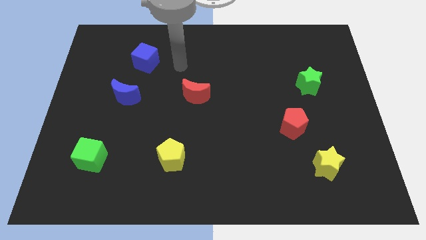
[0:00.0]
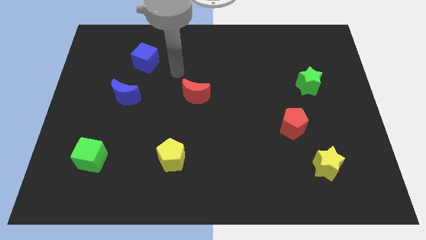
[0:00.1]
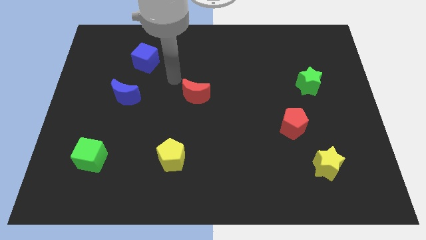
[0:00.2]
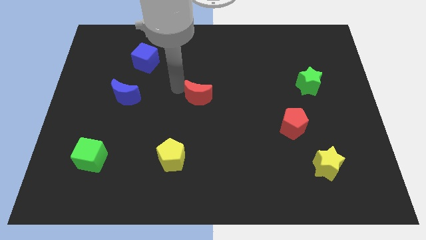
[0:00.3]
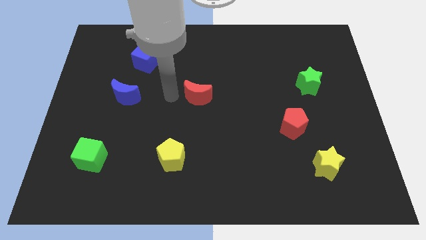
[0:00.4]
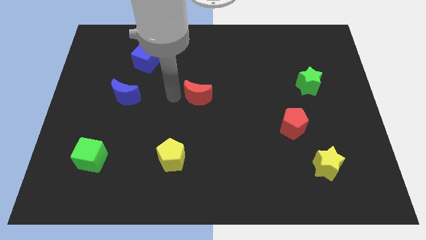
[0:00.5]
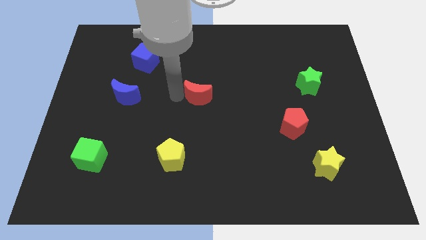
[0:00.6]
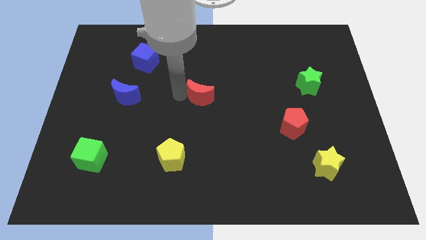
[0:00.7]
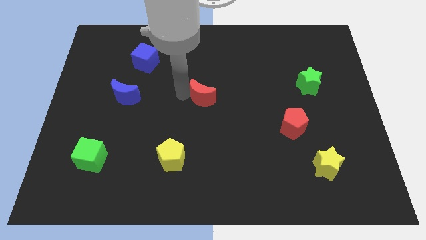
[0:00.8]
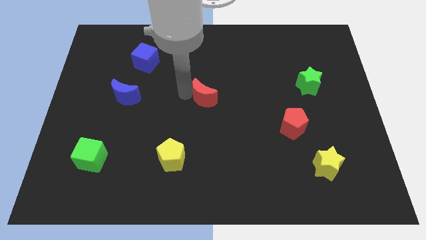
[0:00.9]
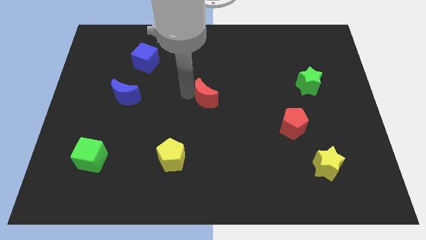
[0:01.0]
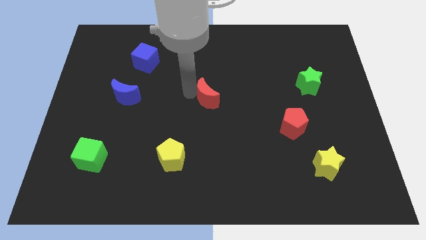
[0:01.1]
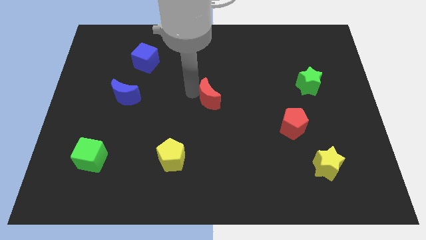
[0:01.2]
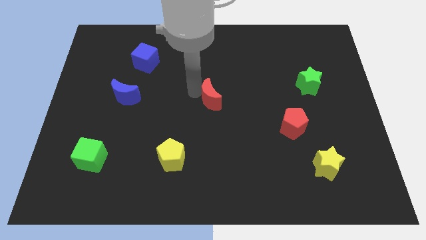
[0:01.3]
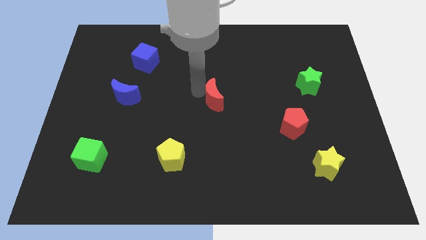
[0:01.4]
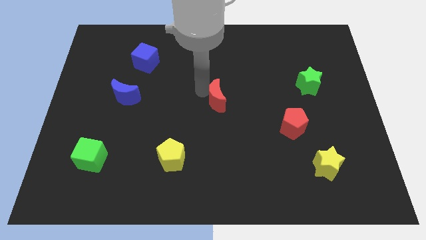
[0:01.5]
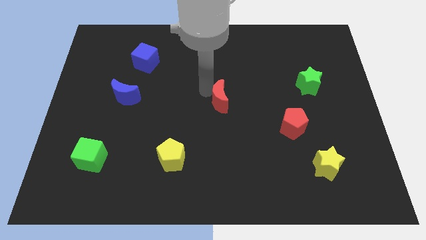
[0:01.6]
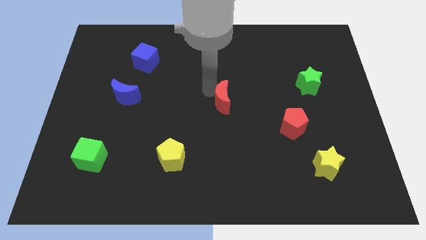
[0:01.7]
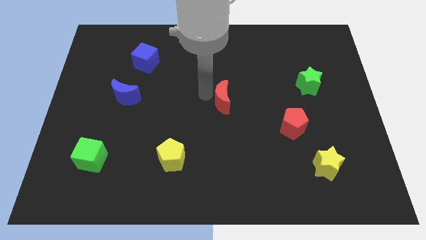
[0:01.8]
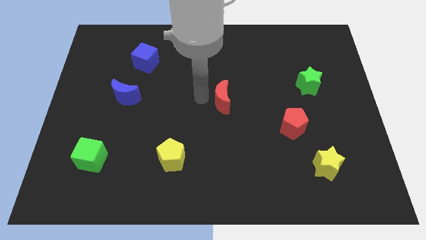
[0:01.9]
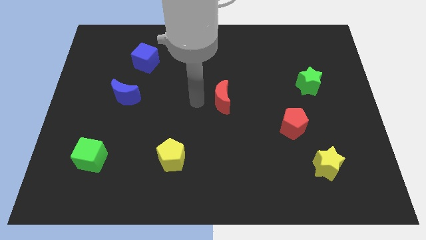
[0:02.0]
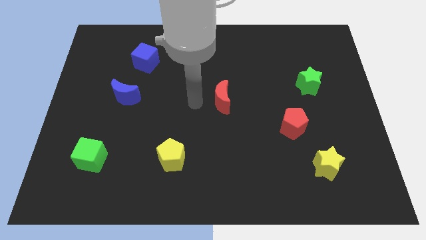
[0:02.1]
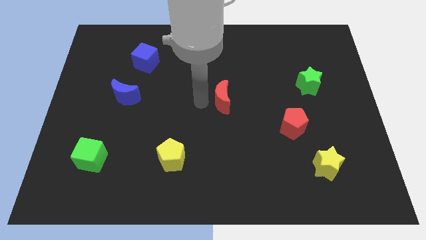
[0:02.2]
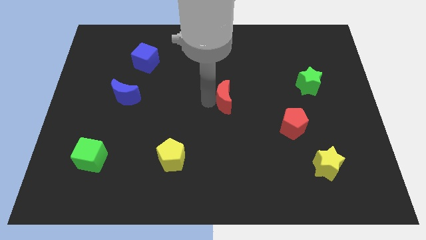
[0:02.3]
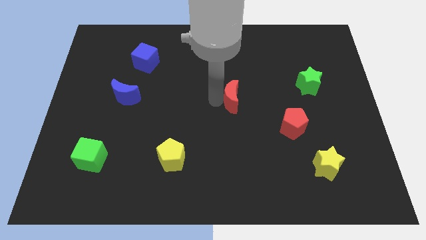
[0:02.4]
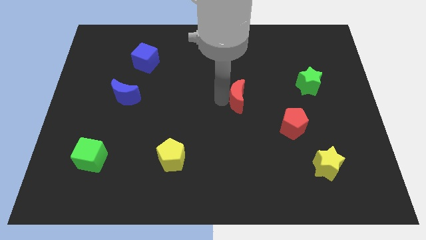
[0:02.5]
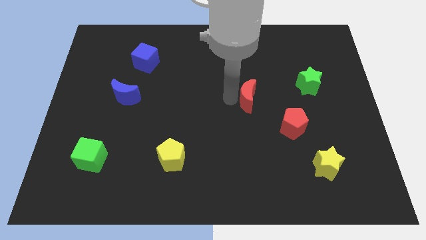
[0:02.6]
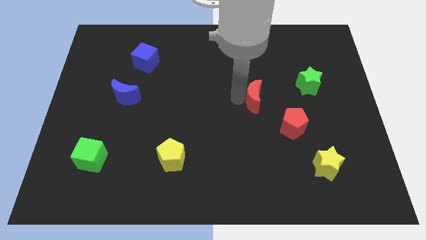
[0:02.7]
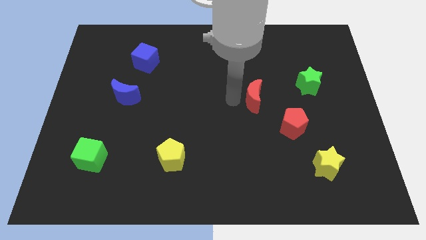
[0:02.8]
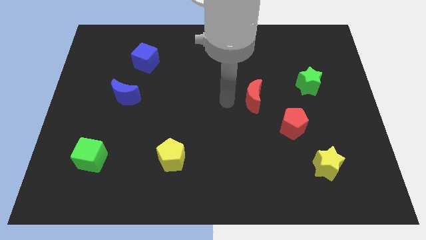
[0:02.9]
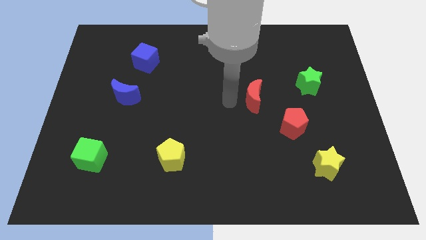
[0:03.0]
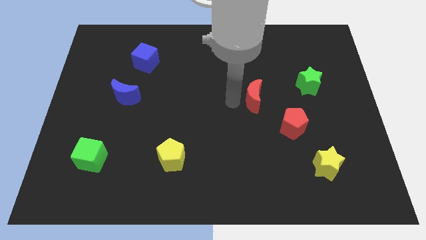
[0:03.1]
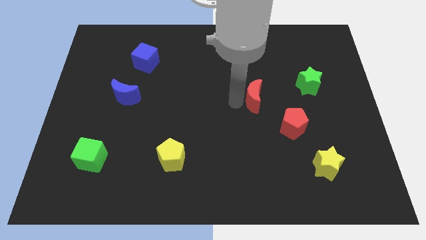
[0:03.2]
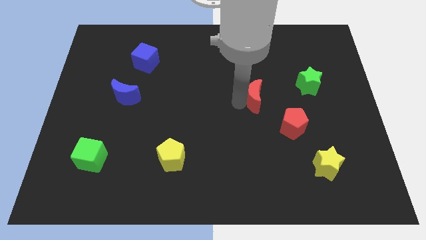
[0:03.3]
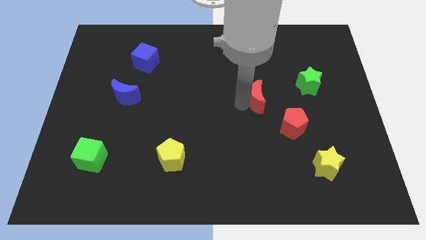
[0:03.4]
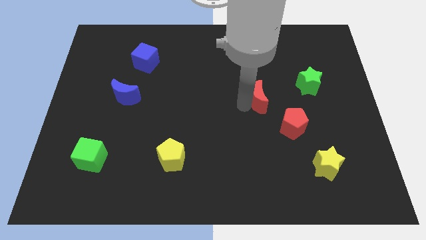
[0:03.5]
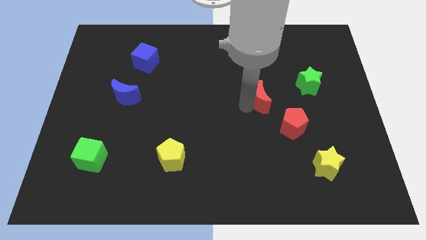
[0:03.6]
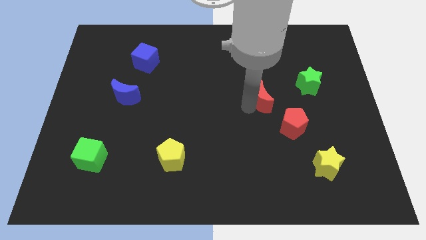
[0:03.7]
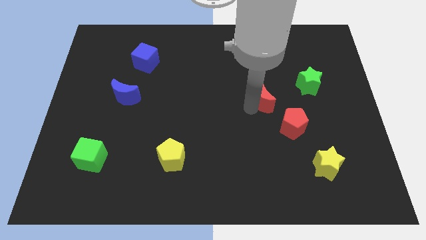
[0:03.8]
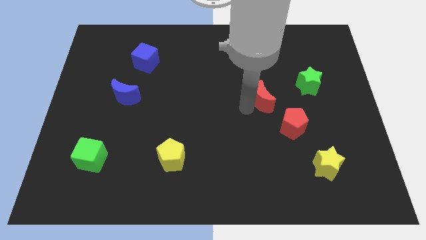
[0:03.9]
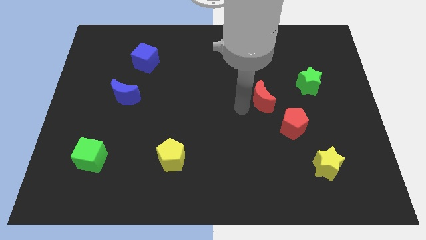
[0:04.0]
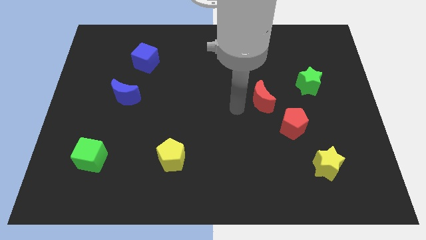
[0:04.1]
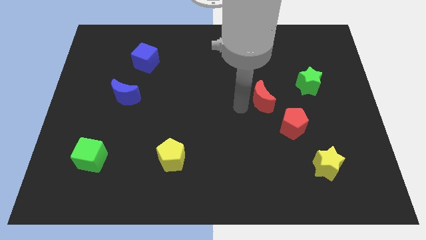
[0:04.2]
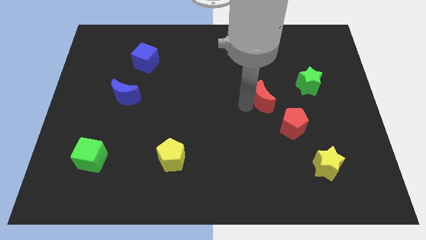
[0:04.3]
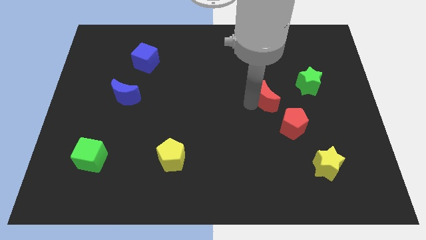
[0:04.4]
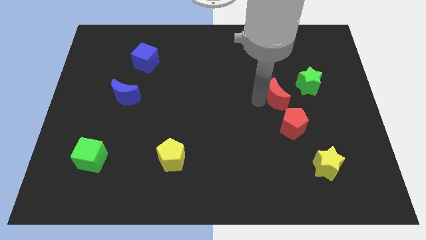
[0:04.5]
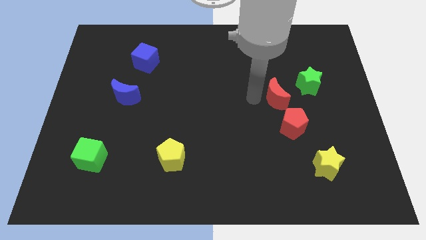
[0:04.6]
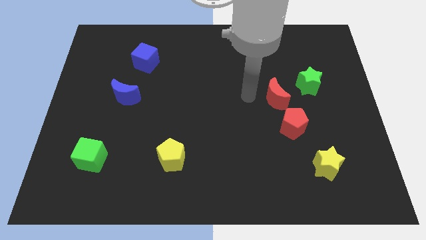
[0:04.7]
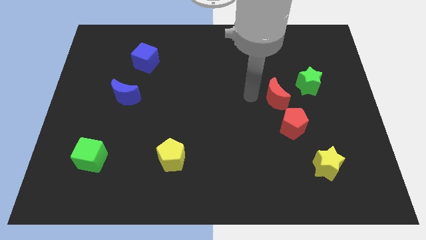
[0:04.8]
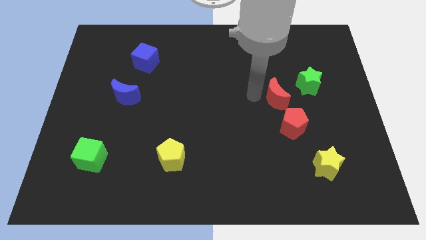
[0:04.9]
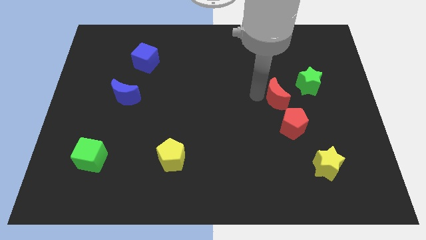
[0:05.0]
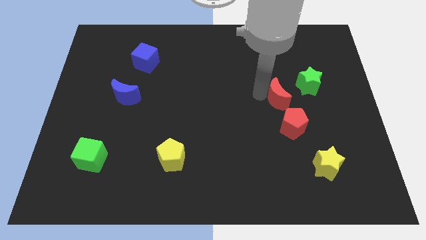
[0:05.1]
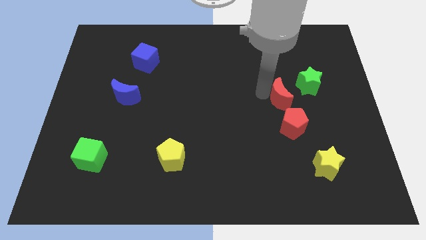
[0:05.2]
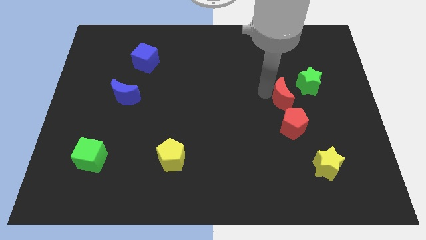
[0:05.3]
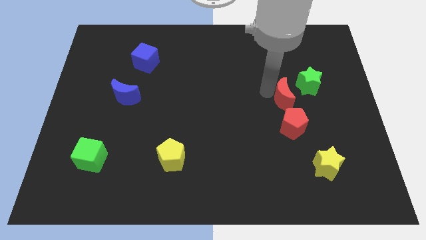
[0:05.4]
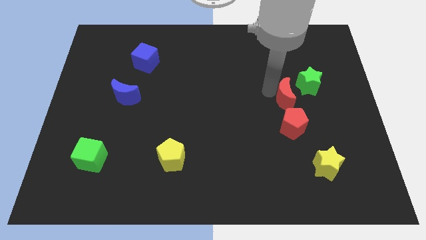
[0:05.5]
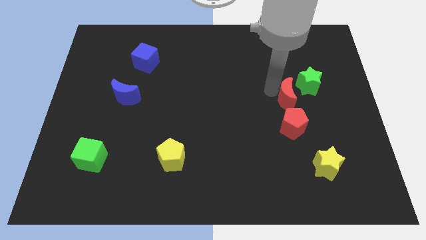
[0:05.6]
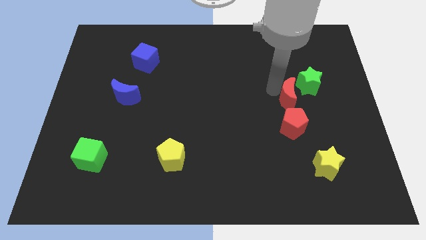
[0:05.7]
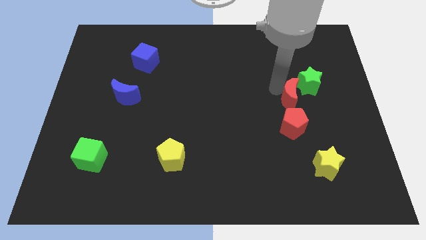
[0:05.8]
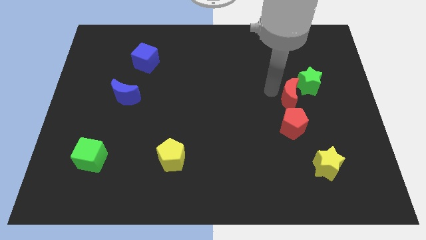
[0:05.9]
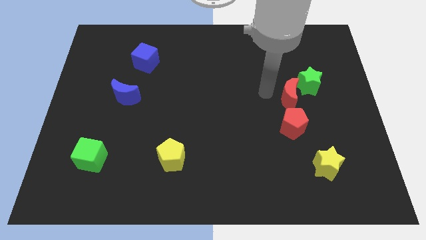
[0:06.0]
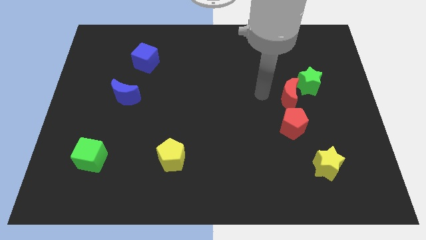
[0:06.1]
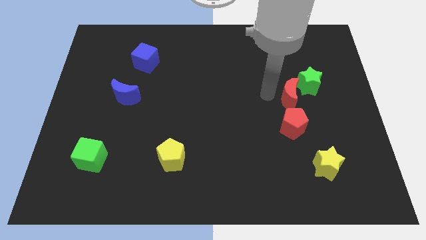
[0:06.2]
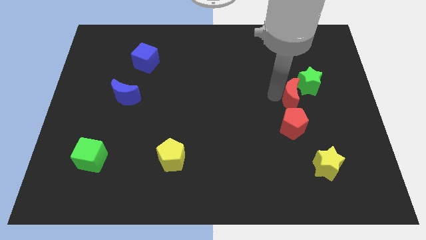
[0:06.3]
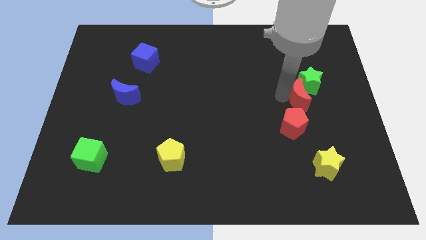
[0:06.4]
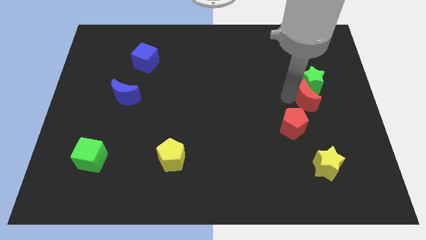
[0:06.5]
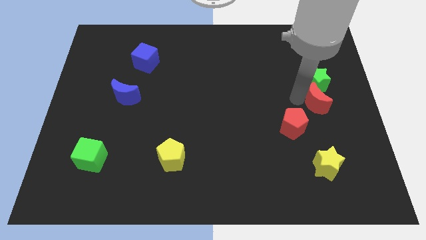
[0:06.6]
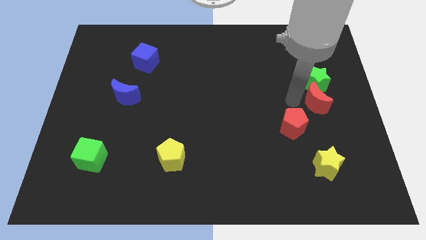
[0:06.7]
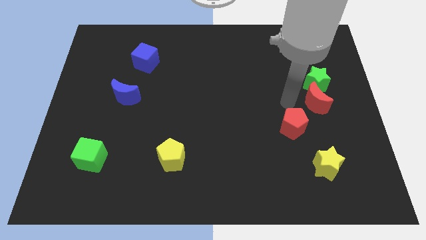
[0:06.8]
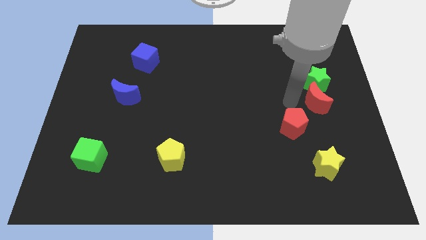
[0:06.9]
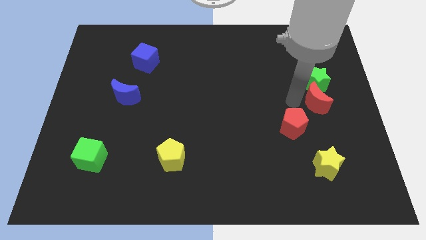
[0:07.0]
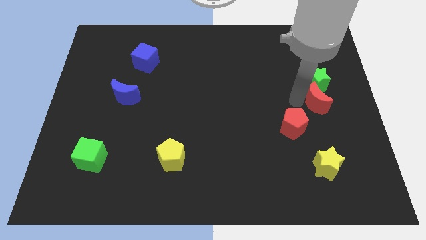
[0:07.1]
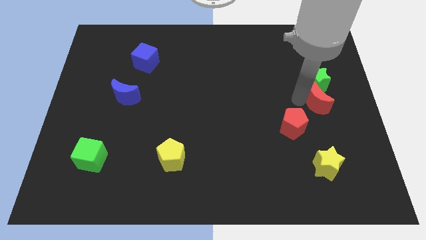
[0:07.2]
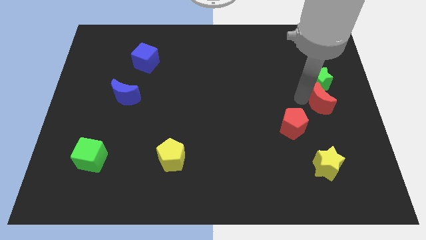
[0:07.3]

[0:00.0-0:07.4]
move the red moon to the right side
